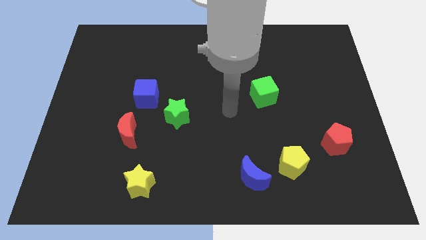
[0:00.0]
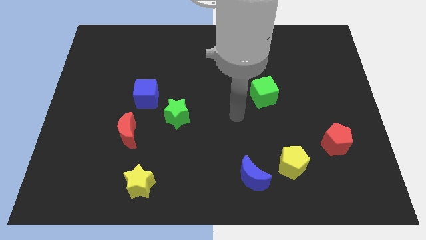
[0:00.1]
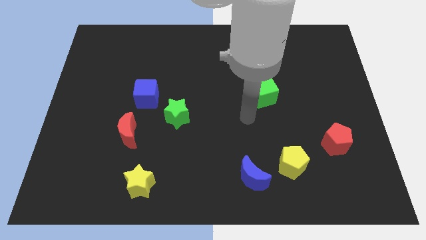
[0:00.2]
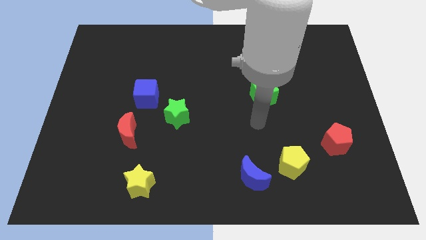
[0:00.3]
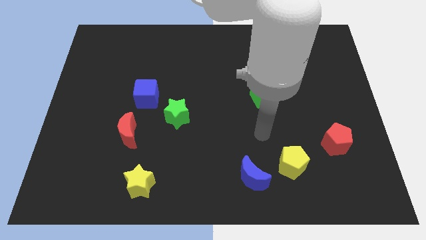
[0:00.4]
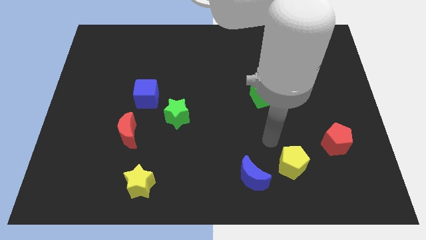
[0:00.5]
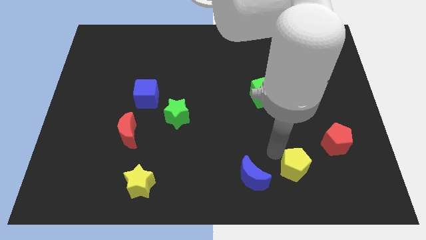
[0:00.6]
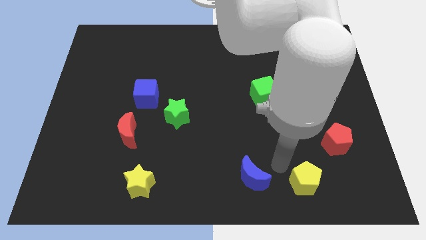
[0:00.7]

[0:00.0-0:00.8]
pull the blue moon apart from the yellow pentagon

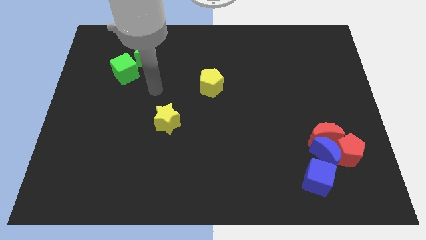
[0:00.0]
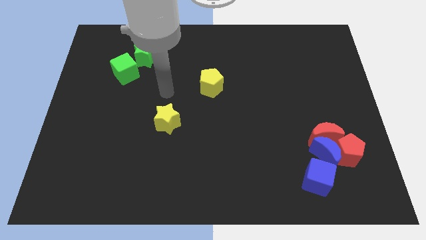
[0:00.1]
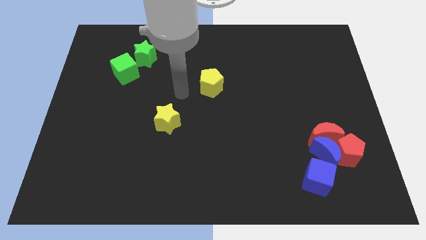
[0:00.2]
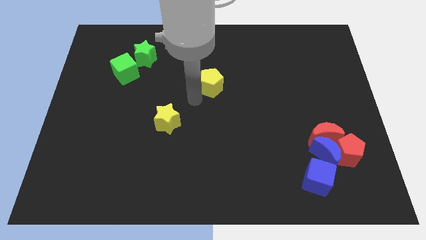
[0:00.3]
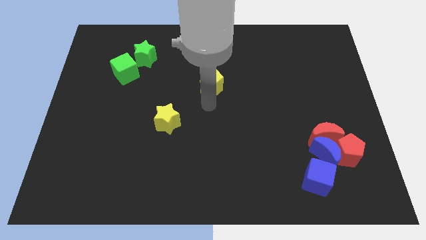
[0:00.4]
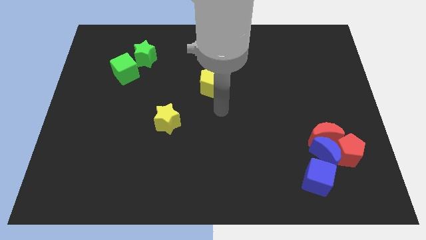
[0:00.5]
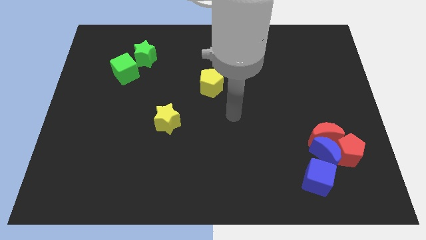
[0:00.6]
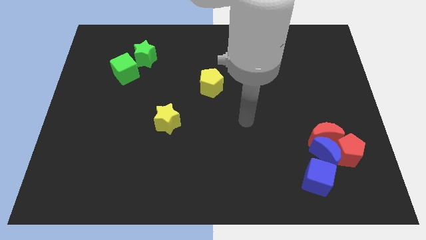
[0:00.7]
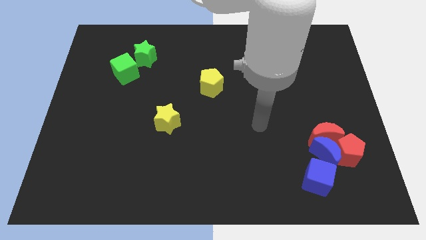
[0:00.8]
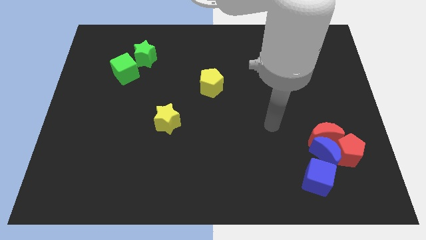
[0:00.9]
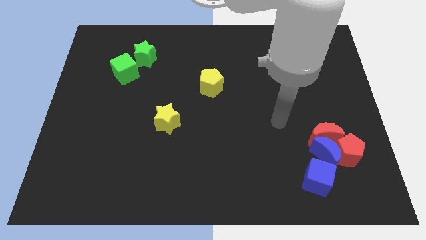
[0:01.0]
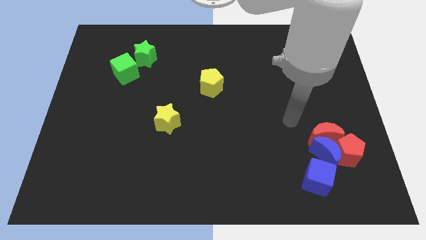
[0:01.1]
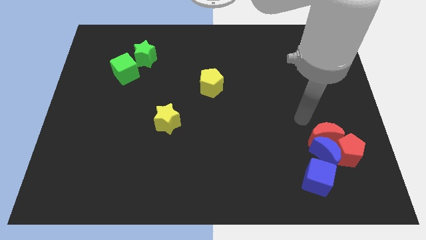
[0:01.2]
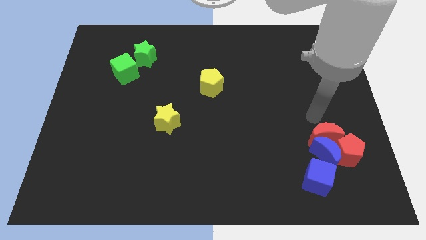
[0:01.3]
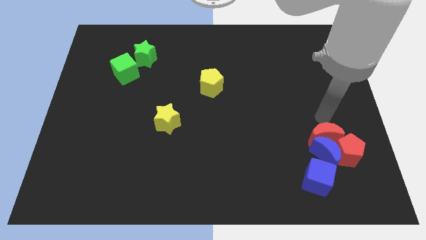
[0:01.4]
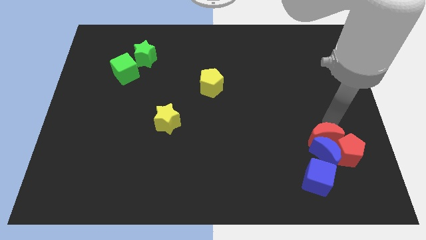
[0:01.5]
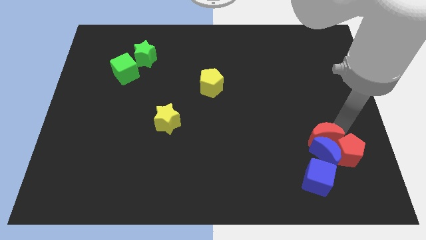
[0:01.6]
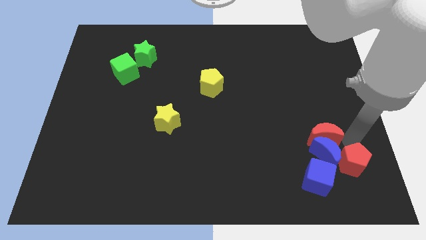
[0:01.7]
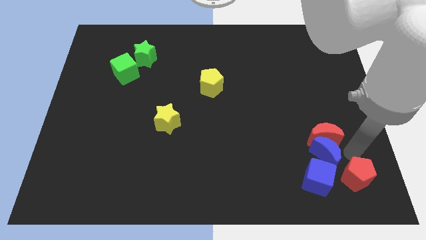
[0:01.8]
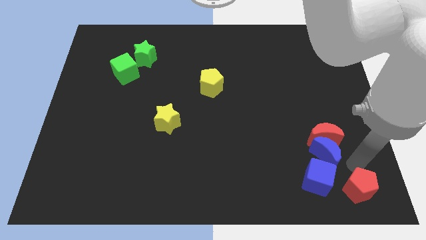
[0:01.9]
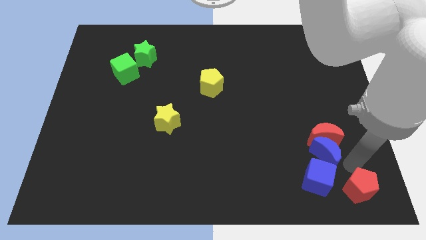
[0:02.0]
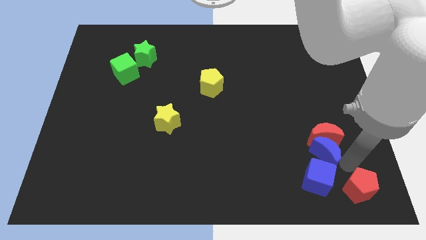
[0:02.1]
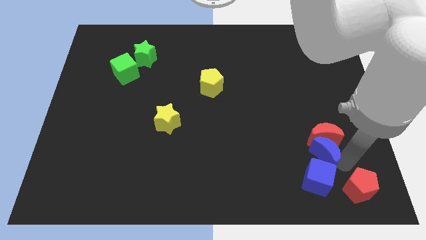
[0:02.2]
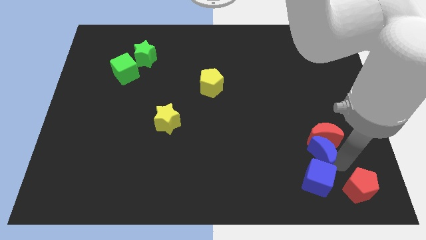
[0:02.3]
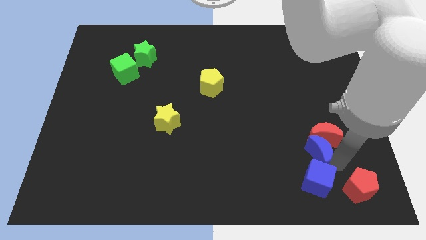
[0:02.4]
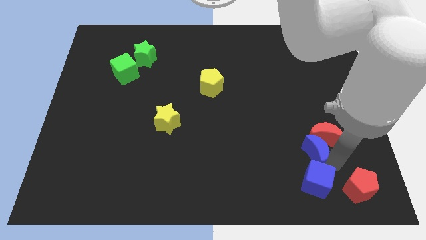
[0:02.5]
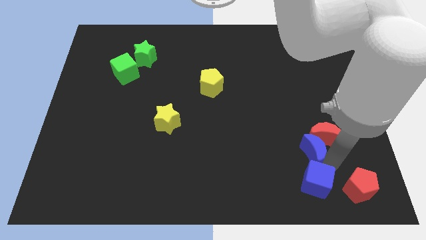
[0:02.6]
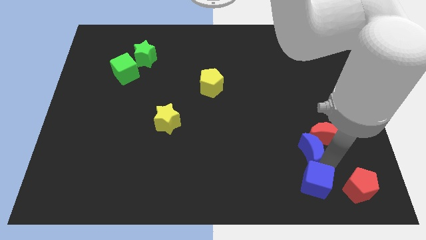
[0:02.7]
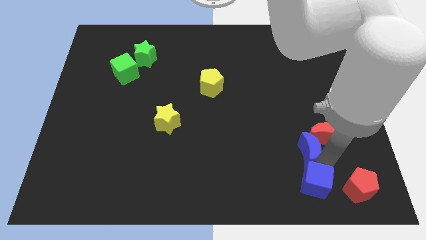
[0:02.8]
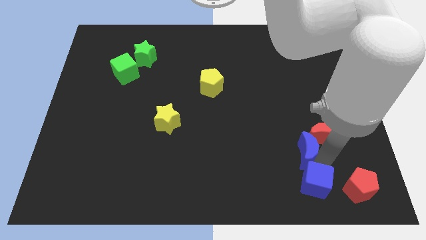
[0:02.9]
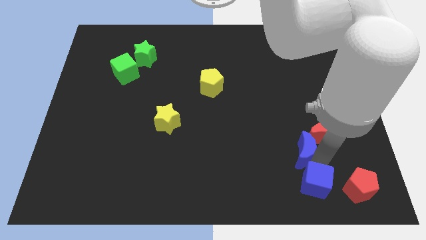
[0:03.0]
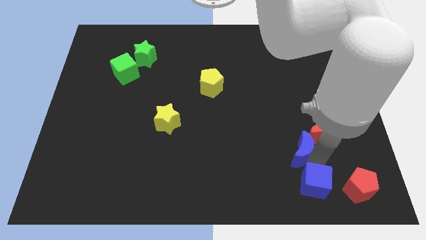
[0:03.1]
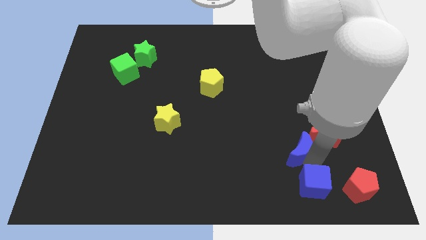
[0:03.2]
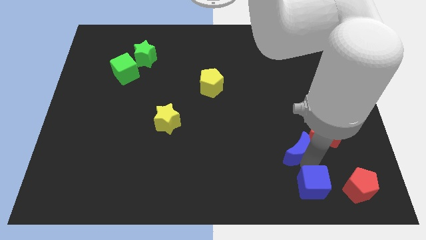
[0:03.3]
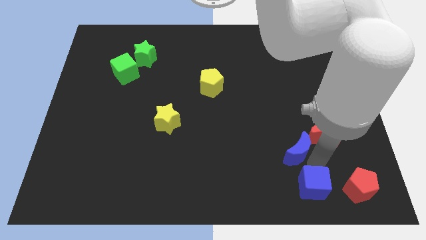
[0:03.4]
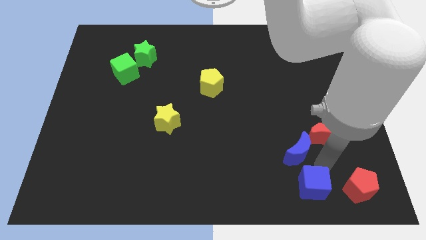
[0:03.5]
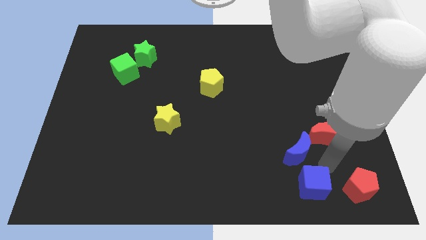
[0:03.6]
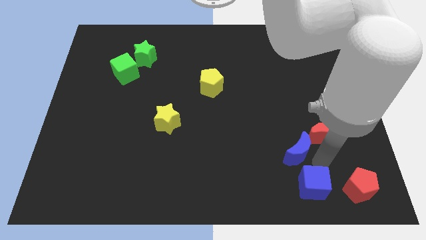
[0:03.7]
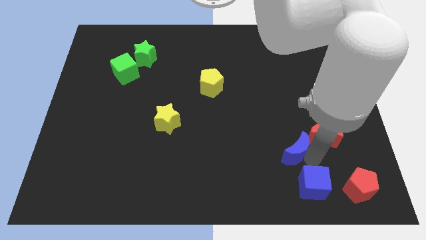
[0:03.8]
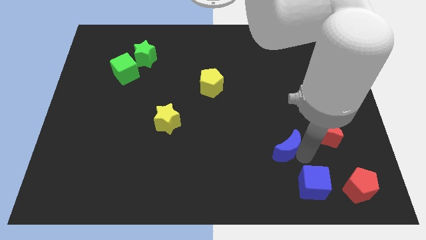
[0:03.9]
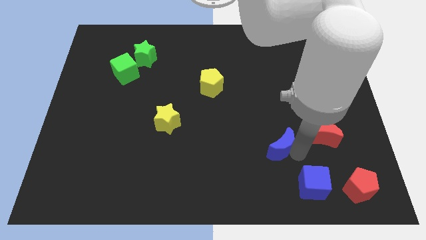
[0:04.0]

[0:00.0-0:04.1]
separate the blue moon from the group of blocks

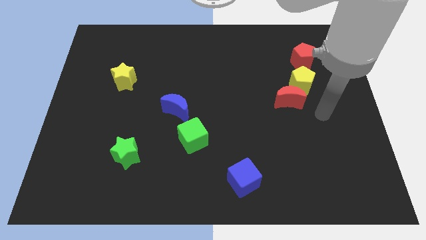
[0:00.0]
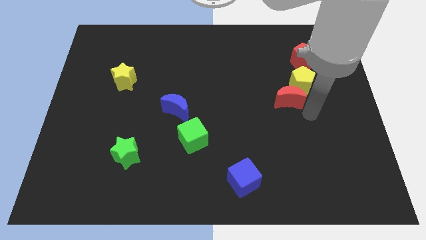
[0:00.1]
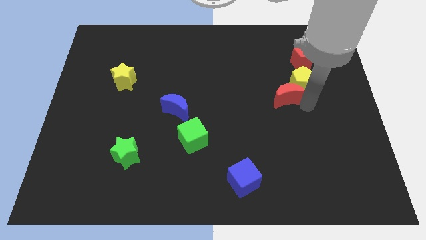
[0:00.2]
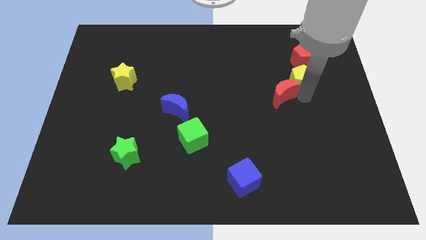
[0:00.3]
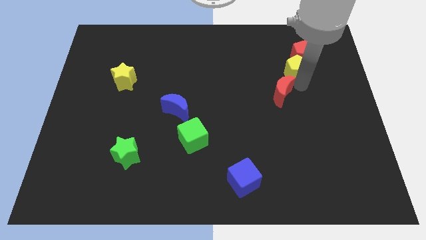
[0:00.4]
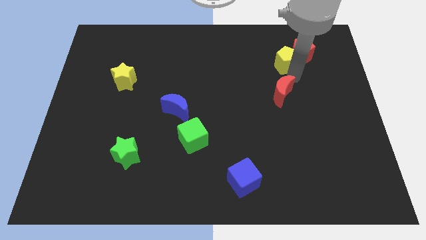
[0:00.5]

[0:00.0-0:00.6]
separate the red moon from the yellow pentagon

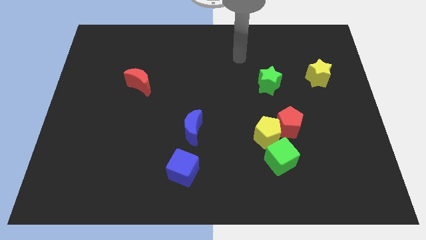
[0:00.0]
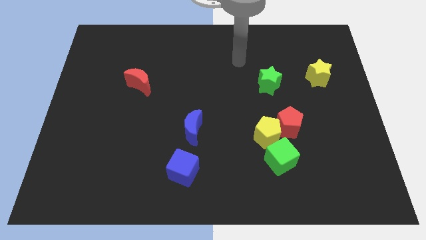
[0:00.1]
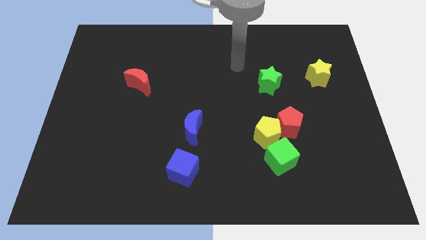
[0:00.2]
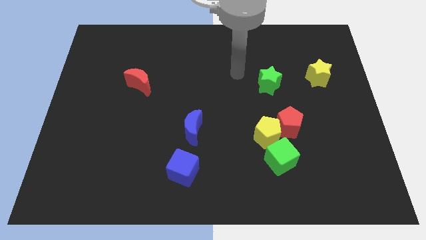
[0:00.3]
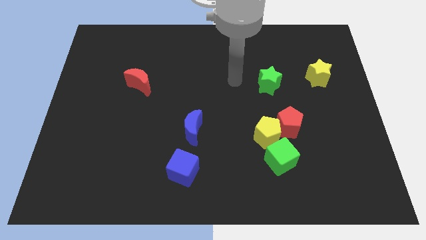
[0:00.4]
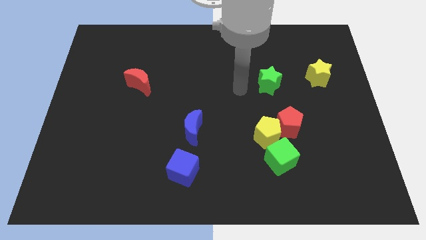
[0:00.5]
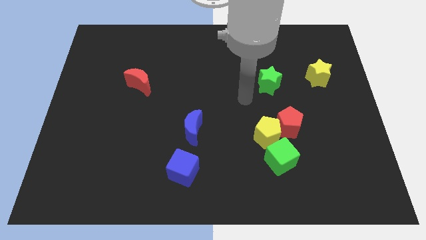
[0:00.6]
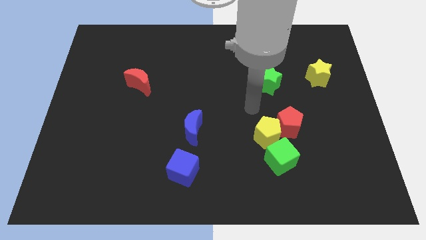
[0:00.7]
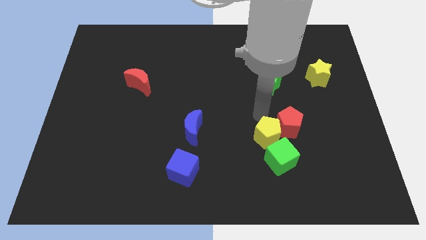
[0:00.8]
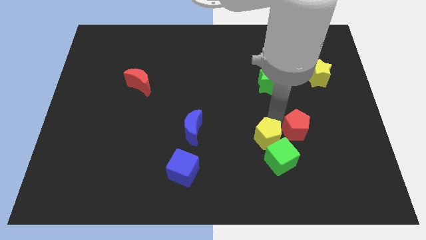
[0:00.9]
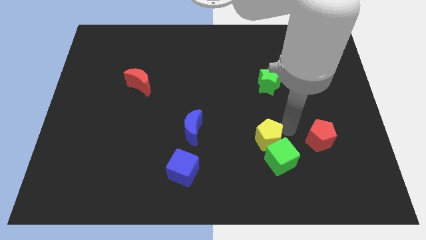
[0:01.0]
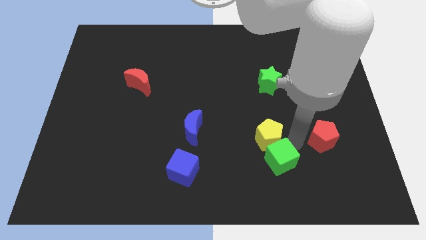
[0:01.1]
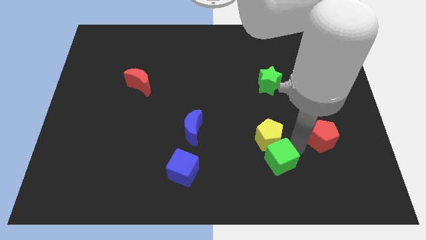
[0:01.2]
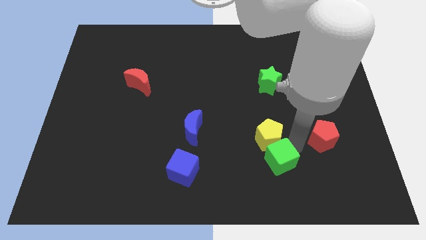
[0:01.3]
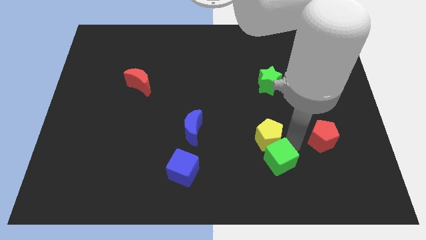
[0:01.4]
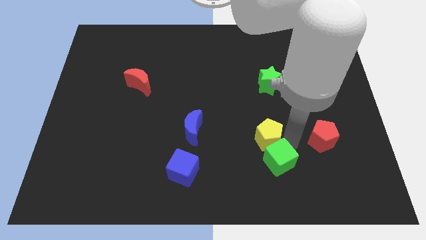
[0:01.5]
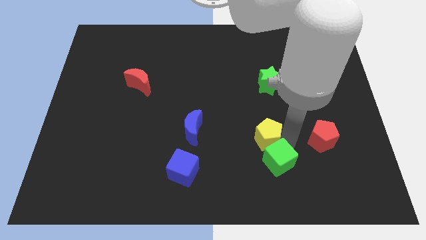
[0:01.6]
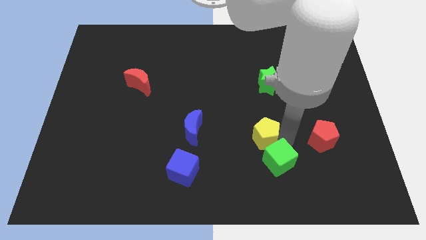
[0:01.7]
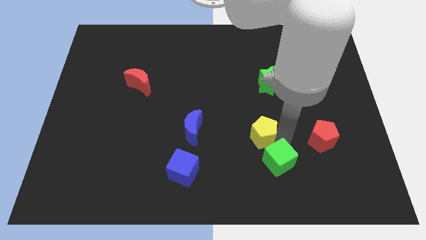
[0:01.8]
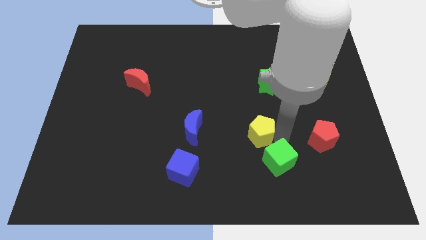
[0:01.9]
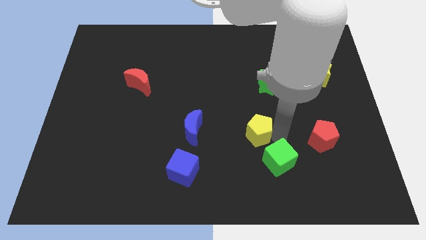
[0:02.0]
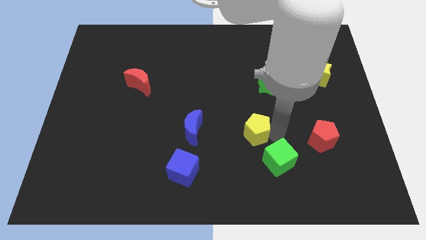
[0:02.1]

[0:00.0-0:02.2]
move the yellow pentagon away from the red pentagon and green cube

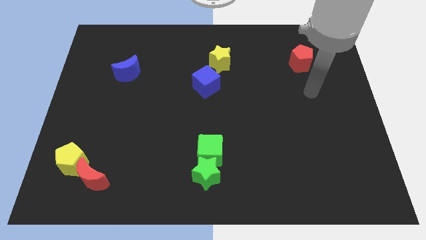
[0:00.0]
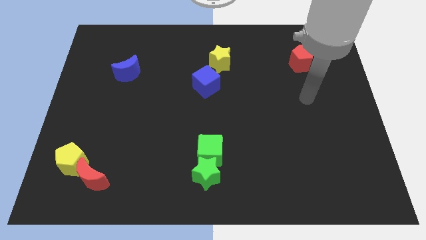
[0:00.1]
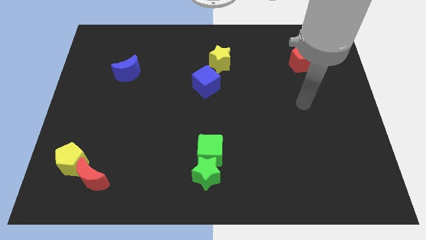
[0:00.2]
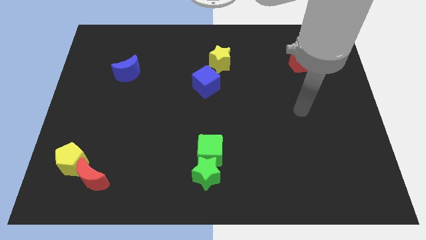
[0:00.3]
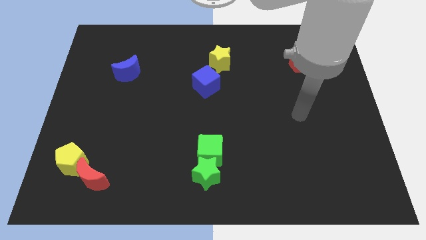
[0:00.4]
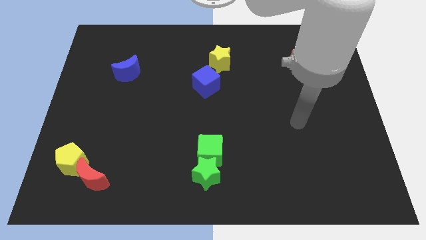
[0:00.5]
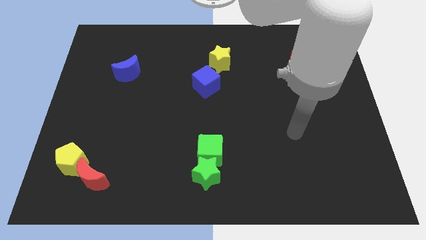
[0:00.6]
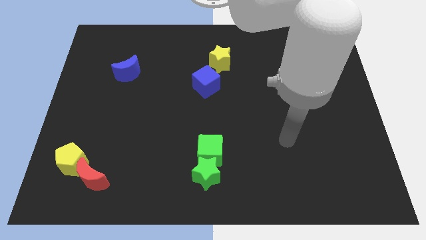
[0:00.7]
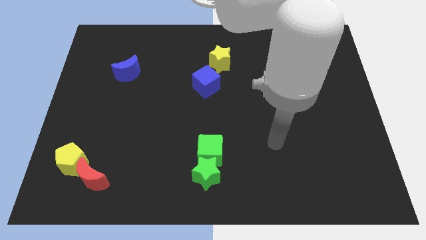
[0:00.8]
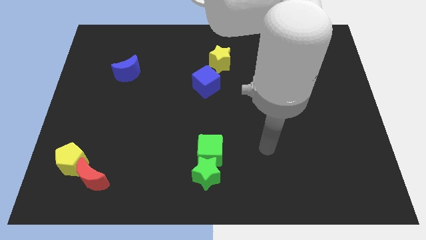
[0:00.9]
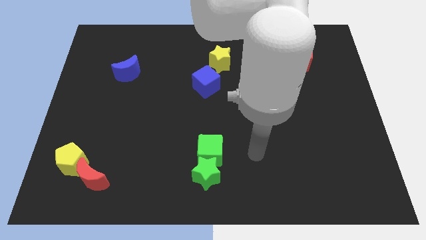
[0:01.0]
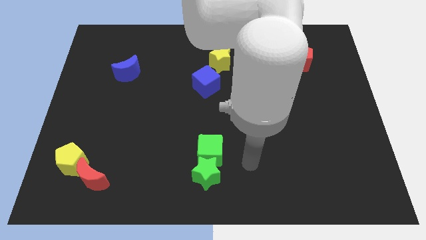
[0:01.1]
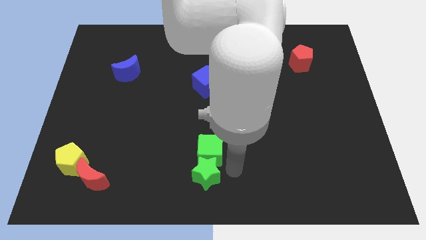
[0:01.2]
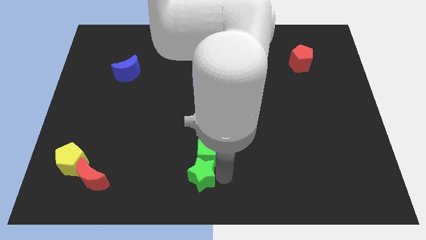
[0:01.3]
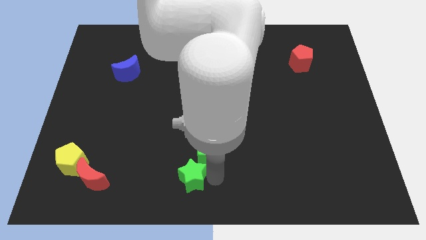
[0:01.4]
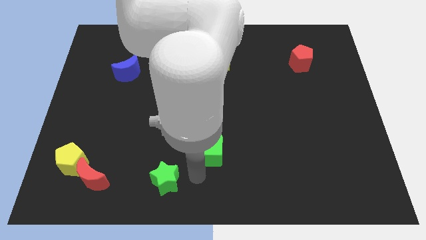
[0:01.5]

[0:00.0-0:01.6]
pull the green cube apart from the green star
